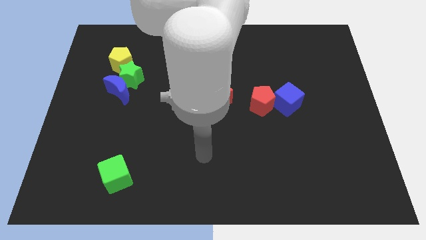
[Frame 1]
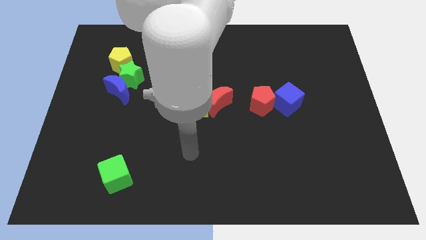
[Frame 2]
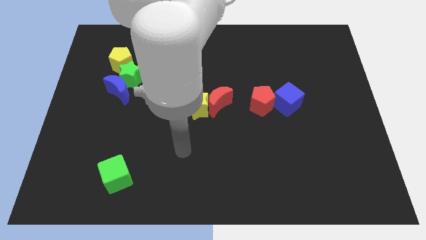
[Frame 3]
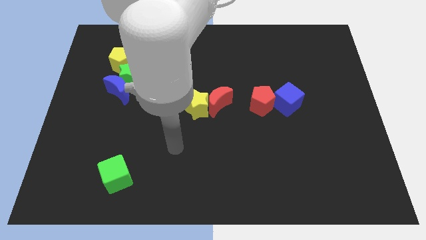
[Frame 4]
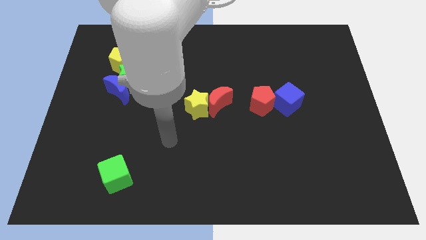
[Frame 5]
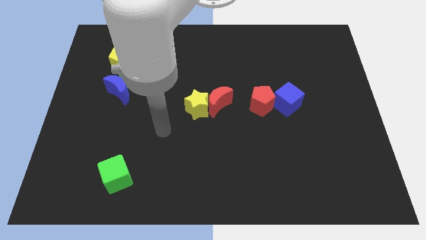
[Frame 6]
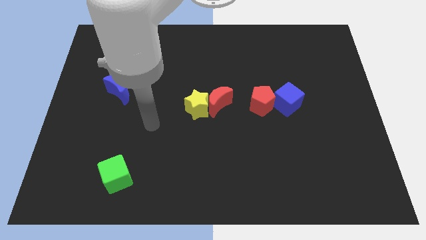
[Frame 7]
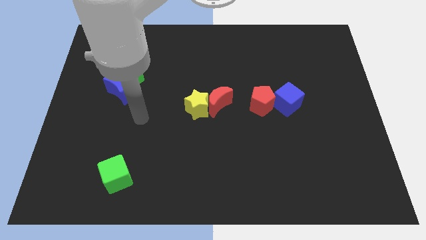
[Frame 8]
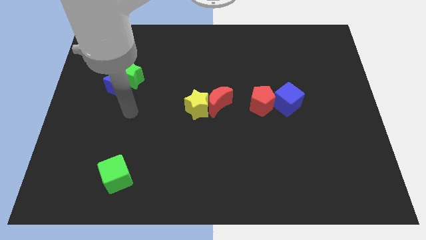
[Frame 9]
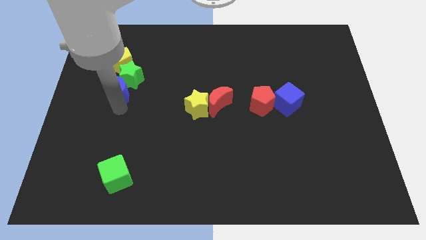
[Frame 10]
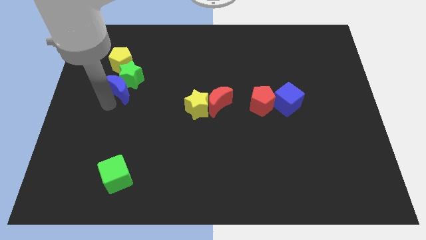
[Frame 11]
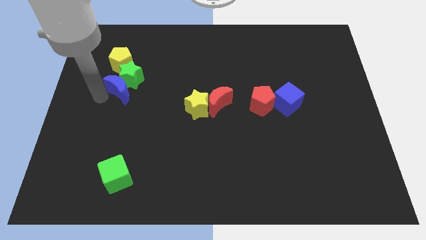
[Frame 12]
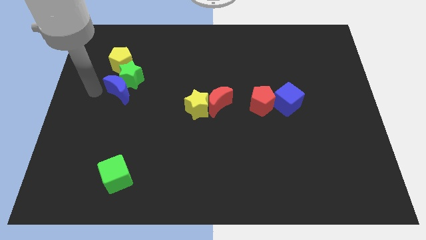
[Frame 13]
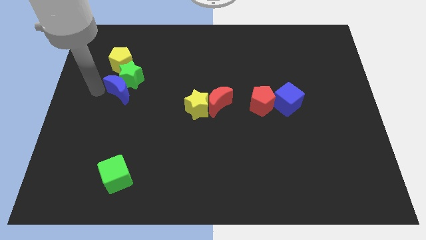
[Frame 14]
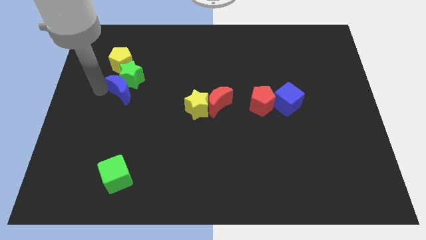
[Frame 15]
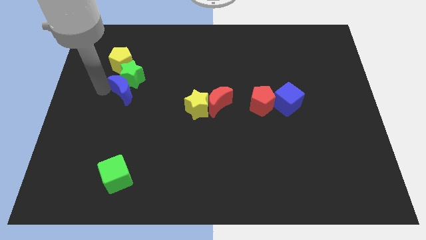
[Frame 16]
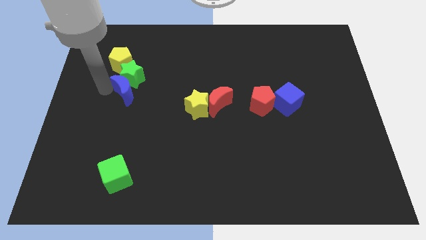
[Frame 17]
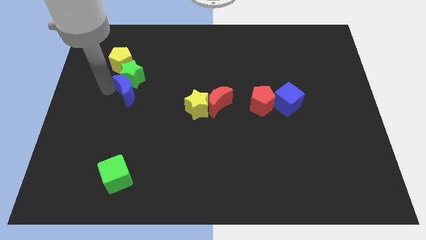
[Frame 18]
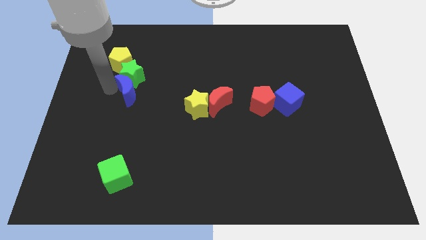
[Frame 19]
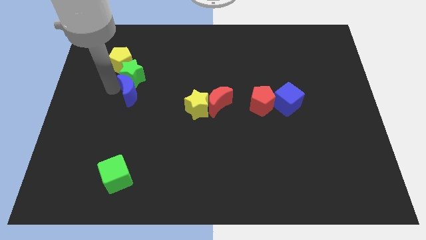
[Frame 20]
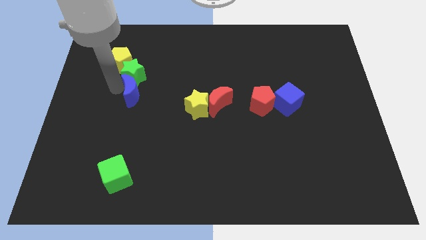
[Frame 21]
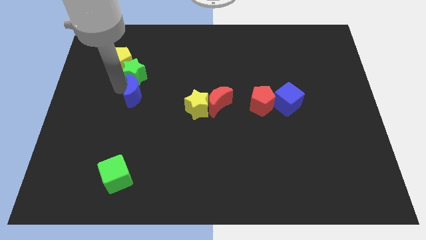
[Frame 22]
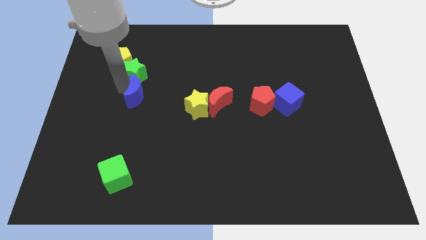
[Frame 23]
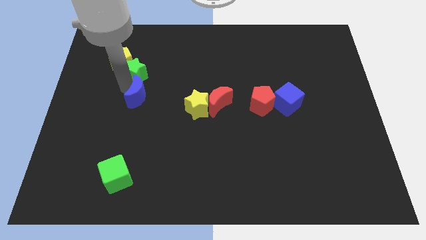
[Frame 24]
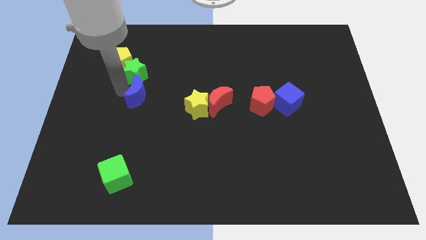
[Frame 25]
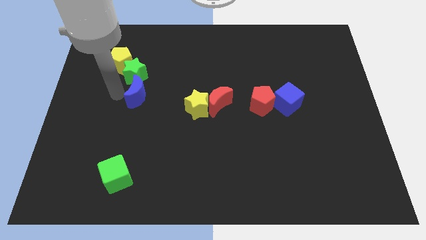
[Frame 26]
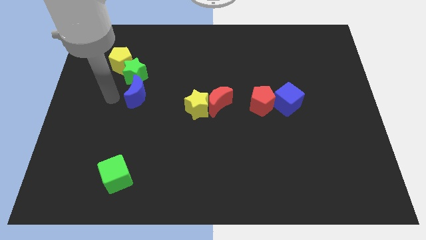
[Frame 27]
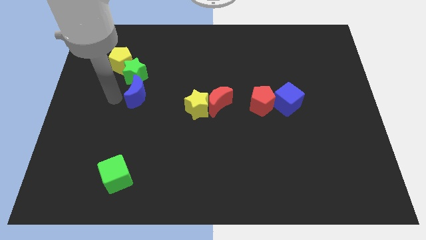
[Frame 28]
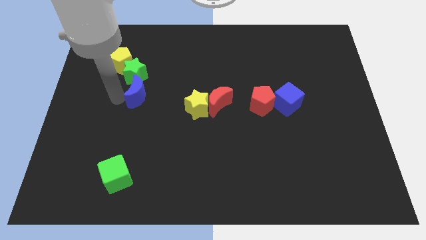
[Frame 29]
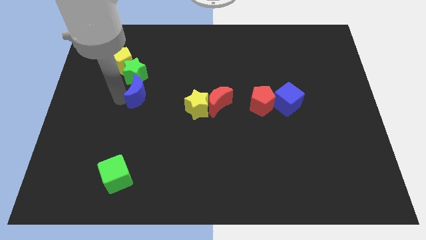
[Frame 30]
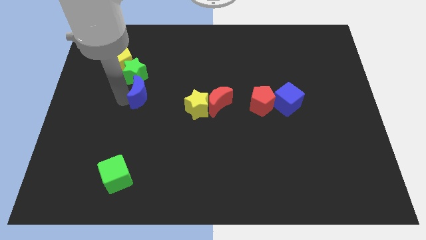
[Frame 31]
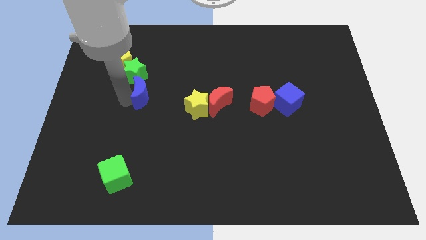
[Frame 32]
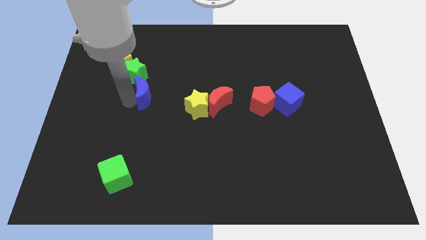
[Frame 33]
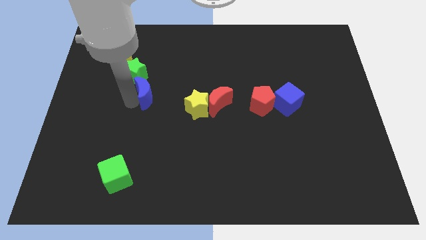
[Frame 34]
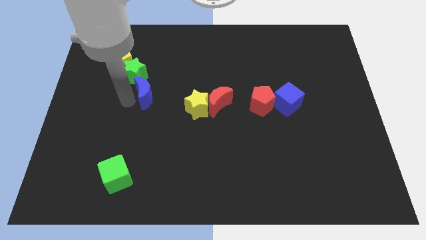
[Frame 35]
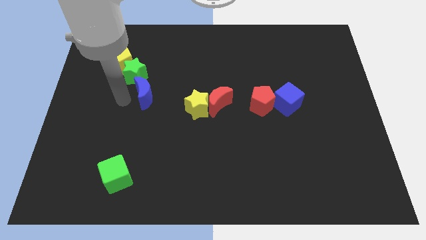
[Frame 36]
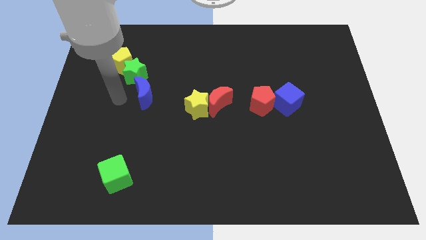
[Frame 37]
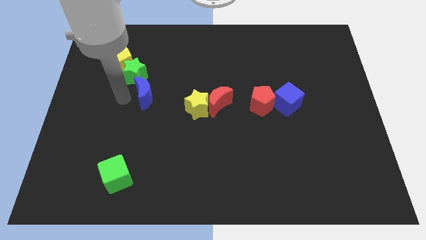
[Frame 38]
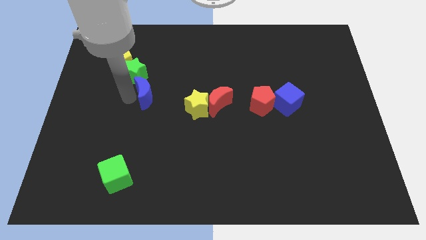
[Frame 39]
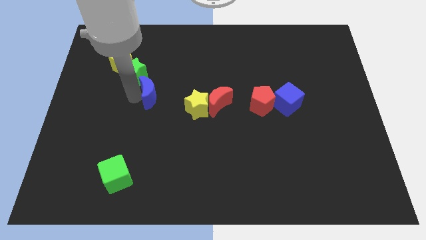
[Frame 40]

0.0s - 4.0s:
slightly push the blue moon to the right

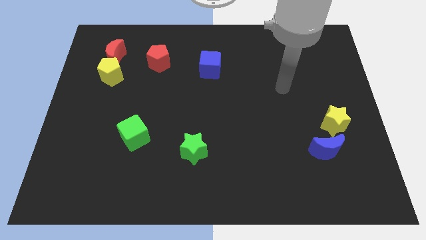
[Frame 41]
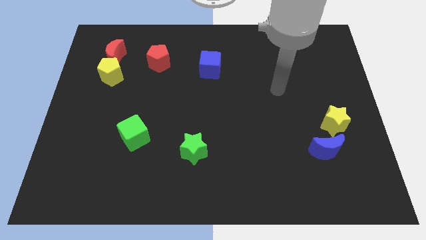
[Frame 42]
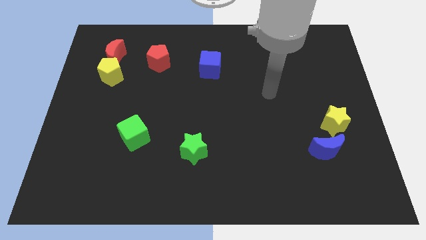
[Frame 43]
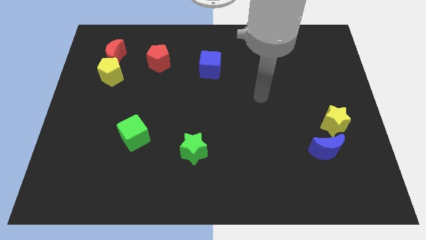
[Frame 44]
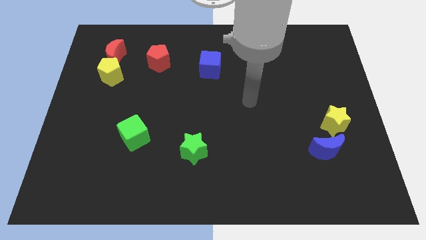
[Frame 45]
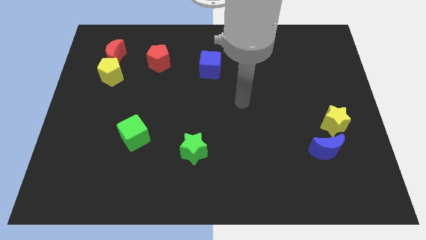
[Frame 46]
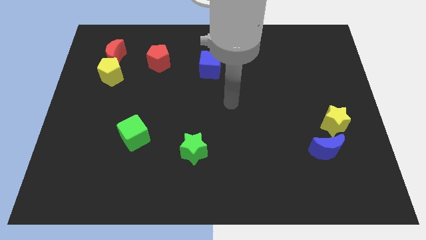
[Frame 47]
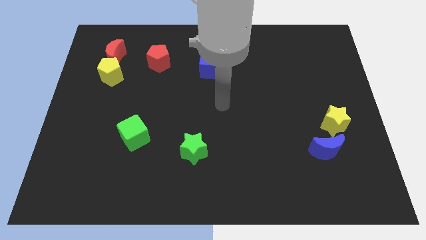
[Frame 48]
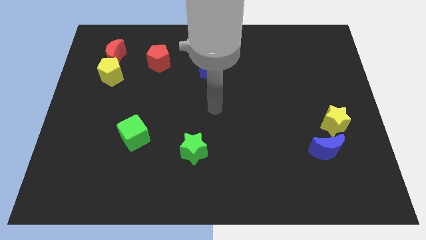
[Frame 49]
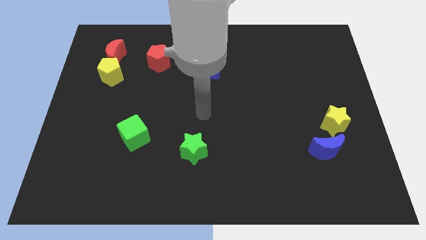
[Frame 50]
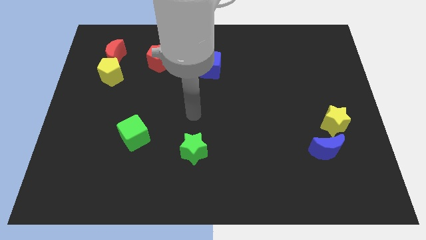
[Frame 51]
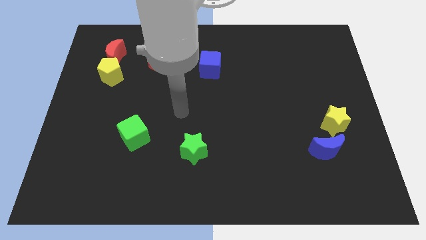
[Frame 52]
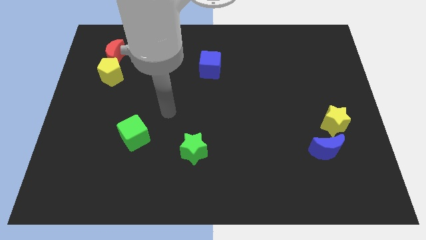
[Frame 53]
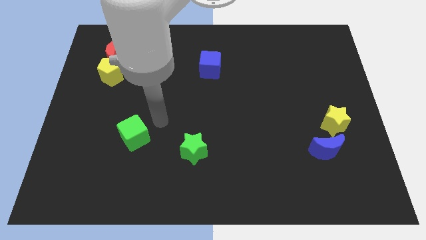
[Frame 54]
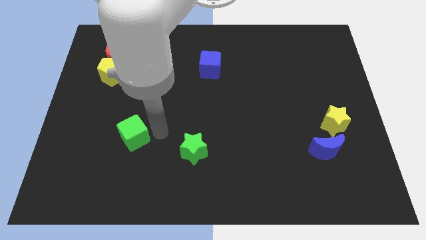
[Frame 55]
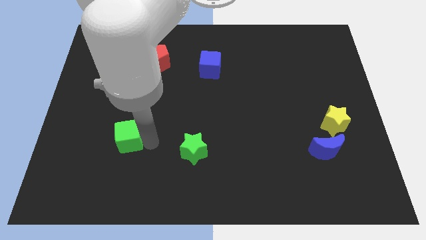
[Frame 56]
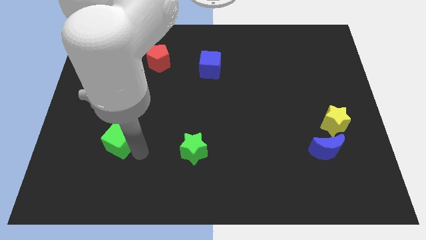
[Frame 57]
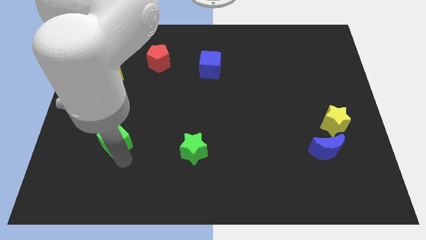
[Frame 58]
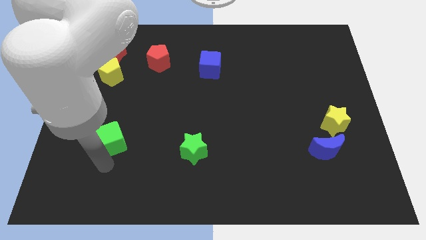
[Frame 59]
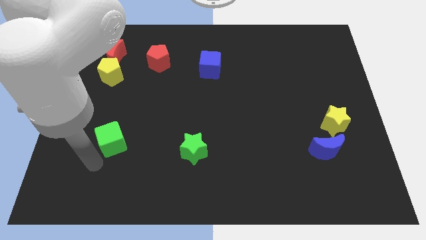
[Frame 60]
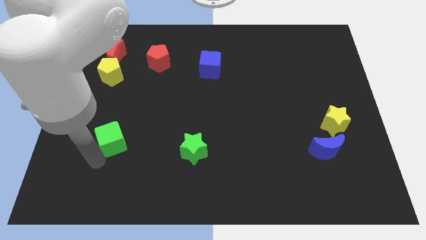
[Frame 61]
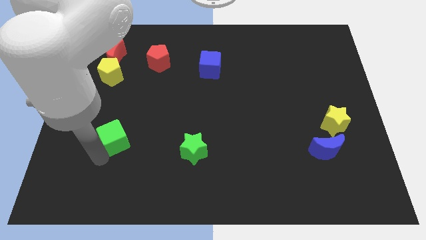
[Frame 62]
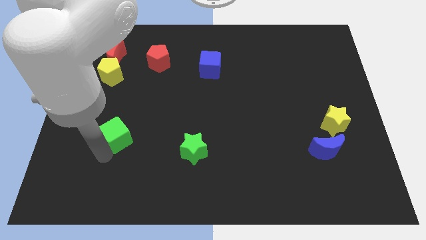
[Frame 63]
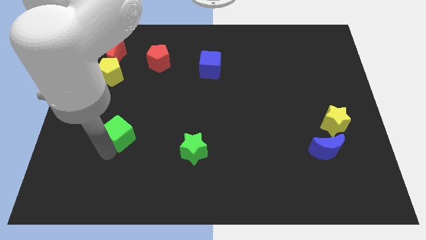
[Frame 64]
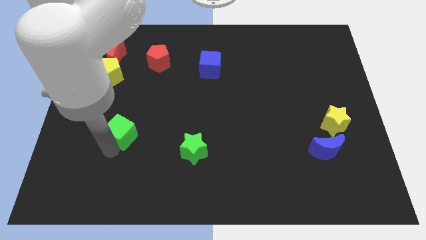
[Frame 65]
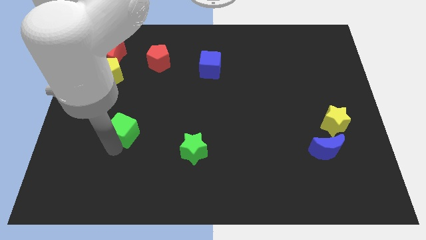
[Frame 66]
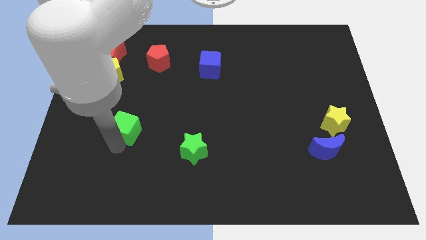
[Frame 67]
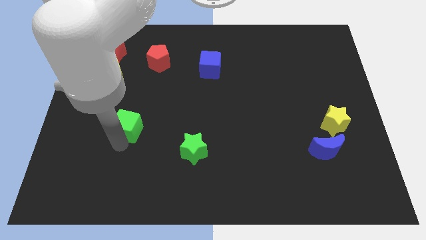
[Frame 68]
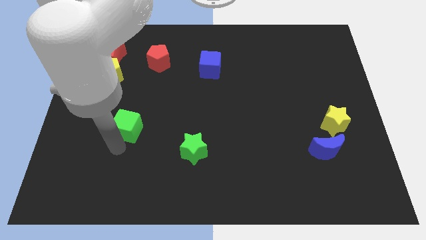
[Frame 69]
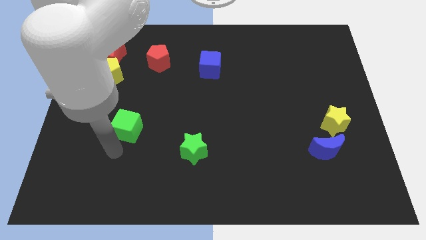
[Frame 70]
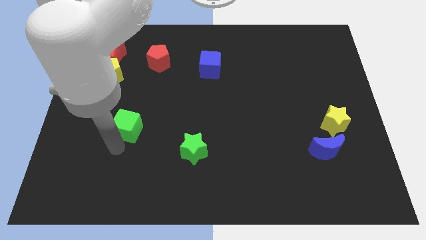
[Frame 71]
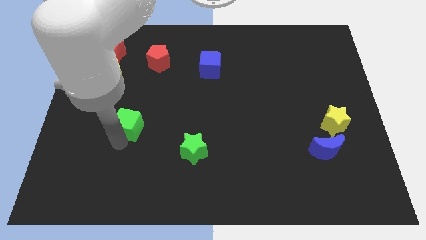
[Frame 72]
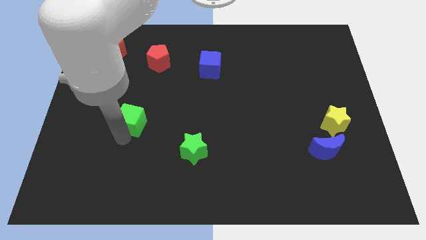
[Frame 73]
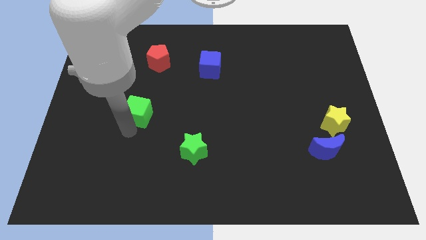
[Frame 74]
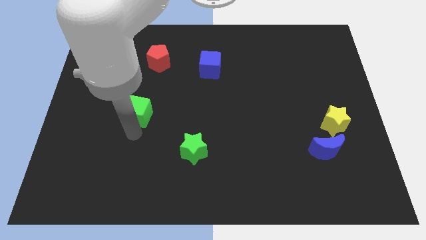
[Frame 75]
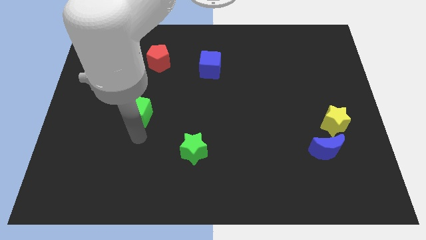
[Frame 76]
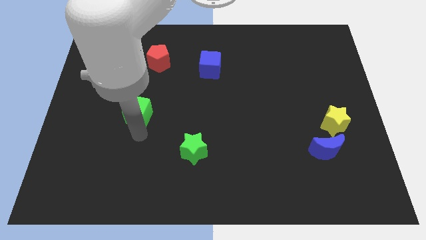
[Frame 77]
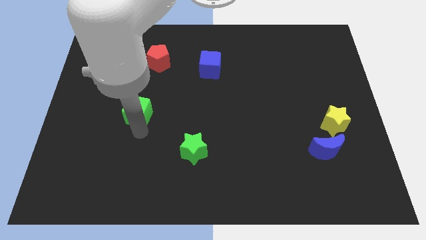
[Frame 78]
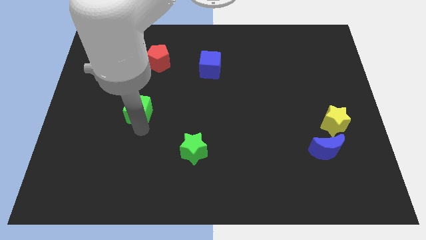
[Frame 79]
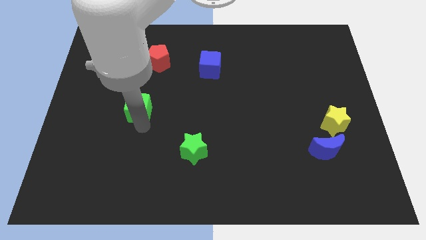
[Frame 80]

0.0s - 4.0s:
push the green cube a little up
